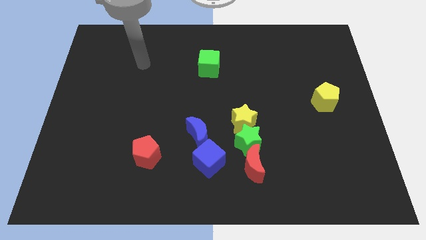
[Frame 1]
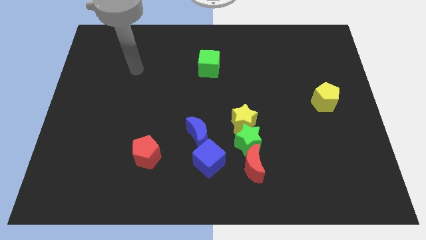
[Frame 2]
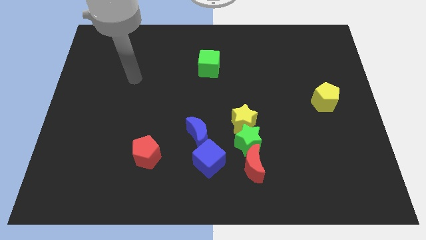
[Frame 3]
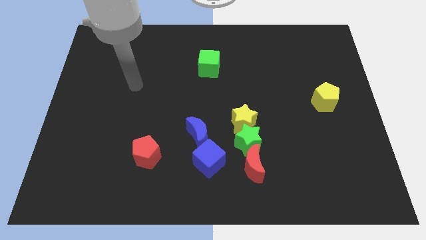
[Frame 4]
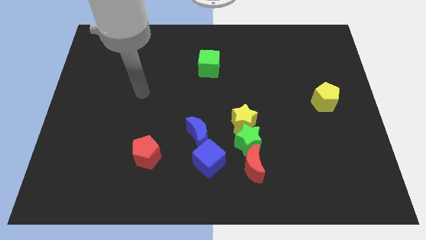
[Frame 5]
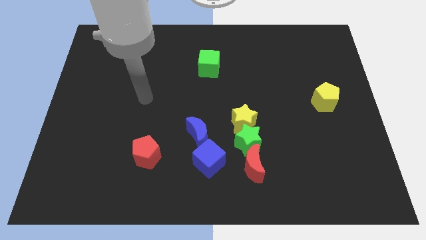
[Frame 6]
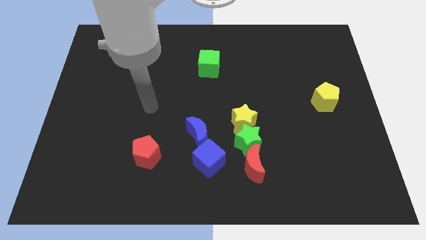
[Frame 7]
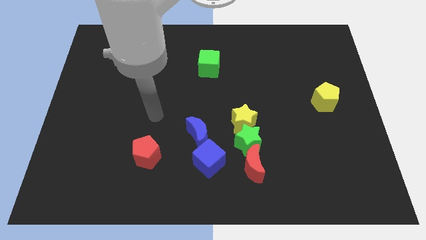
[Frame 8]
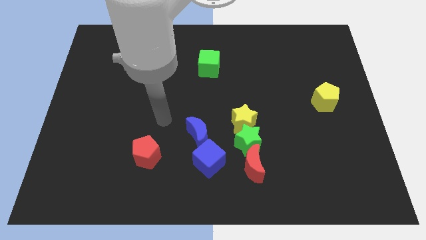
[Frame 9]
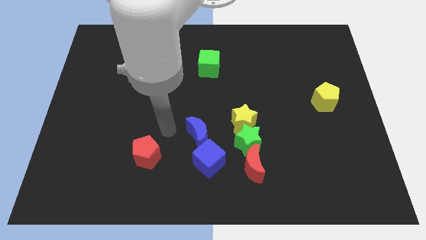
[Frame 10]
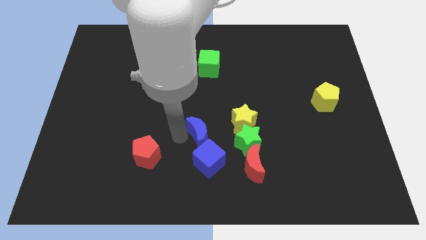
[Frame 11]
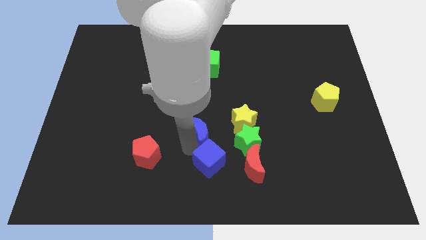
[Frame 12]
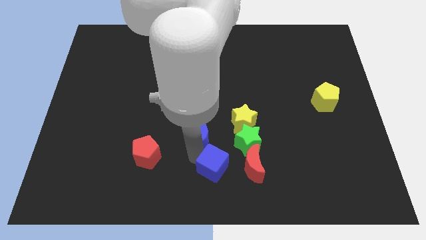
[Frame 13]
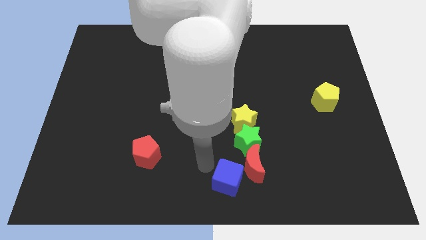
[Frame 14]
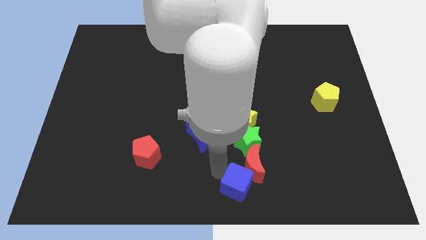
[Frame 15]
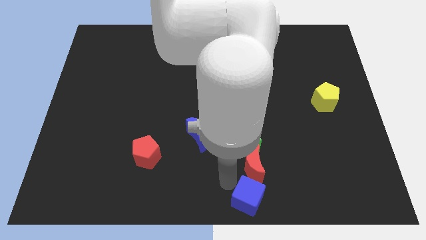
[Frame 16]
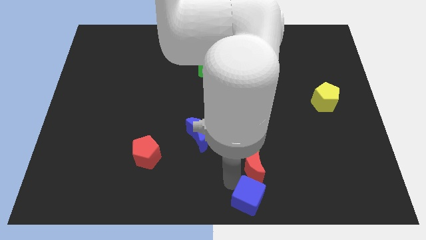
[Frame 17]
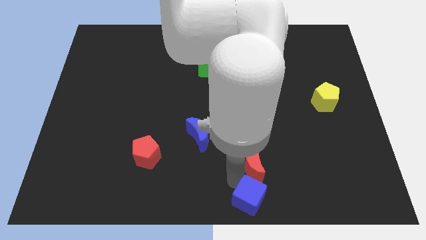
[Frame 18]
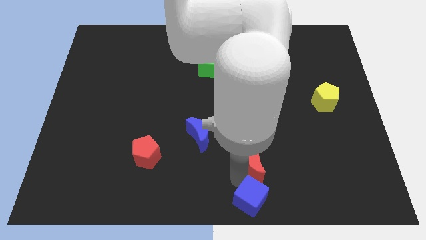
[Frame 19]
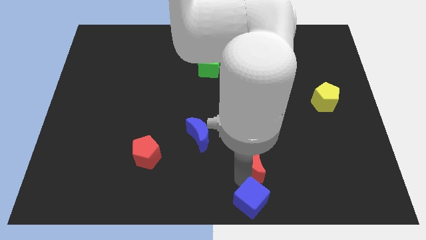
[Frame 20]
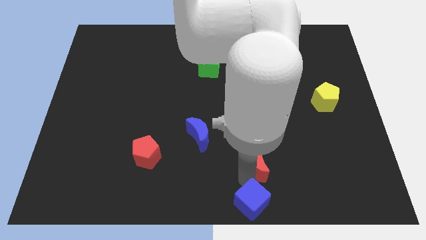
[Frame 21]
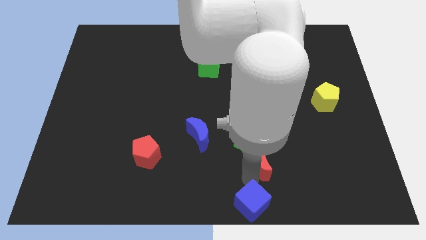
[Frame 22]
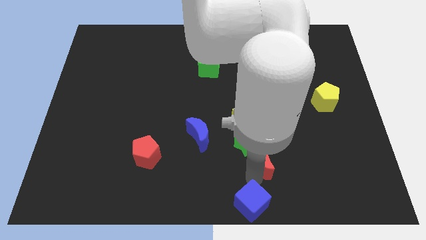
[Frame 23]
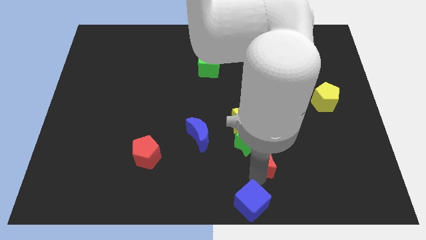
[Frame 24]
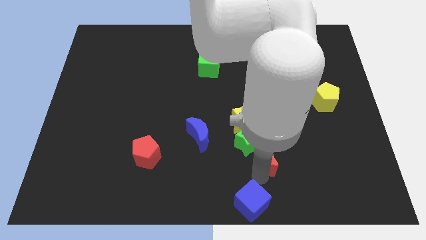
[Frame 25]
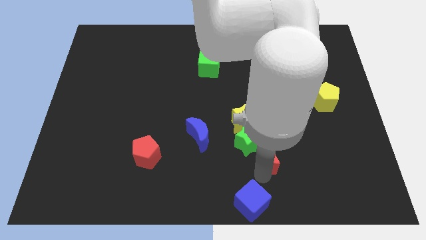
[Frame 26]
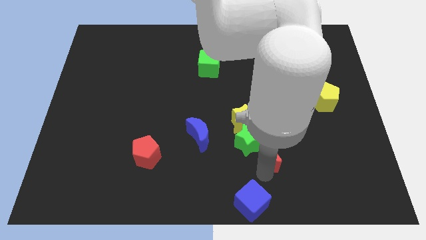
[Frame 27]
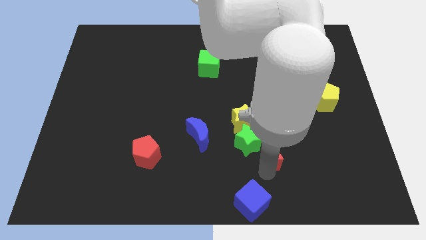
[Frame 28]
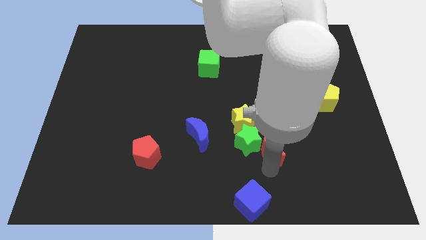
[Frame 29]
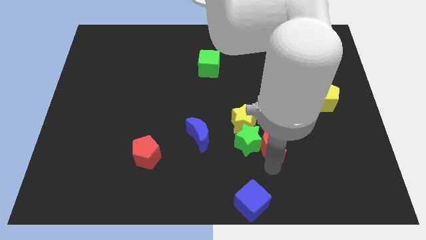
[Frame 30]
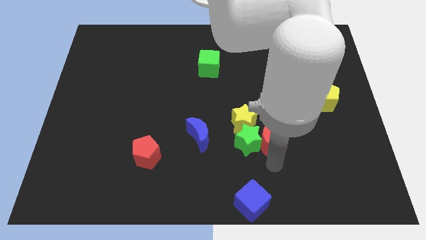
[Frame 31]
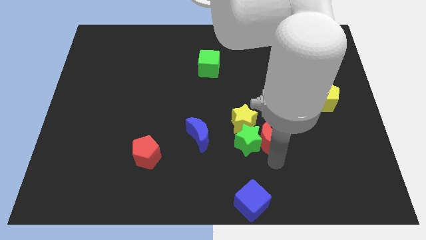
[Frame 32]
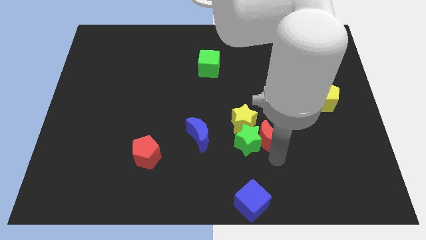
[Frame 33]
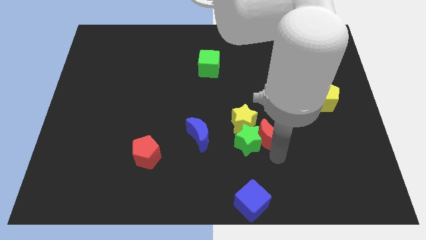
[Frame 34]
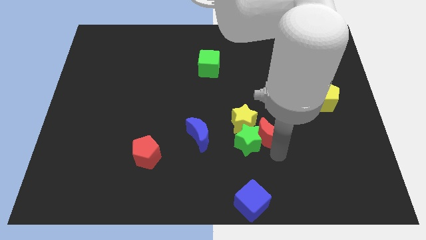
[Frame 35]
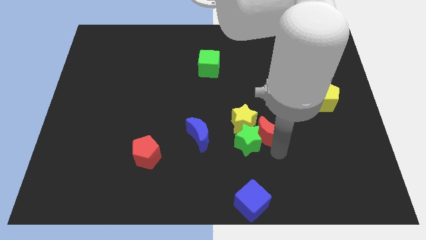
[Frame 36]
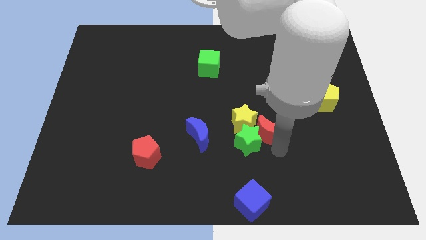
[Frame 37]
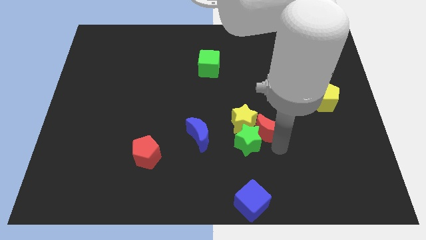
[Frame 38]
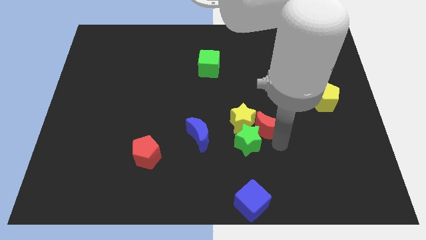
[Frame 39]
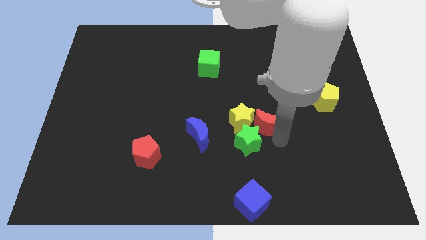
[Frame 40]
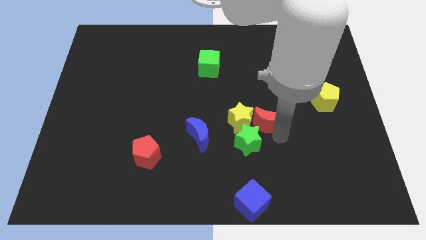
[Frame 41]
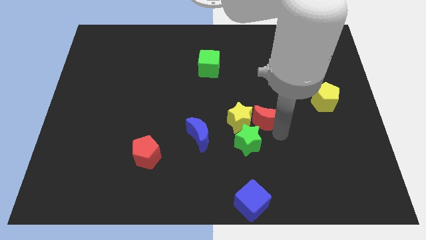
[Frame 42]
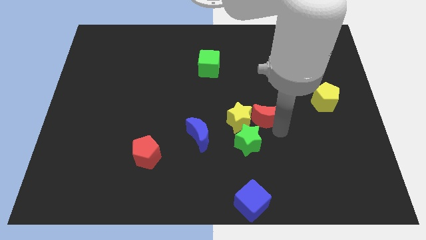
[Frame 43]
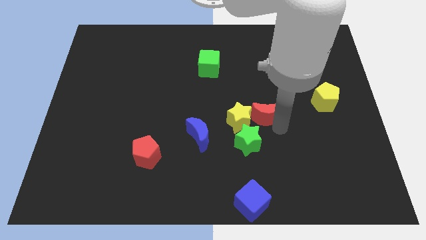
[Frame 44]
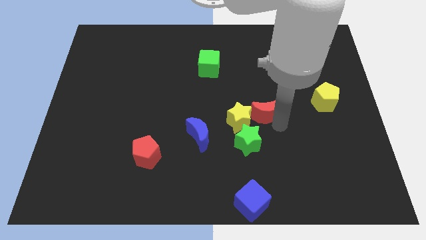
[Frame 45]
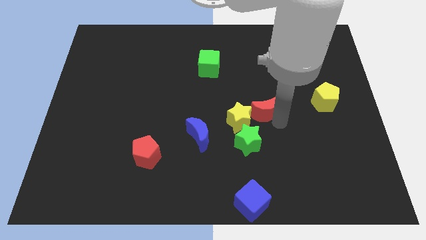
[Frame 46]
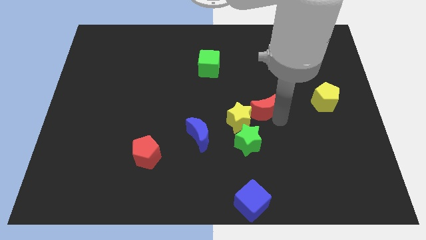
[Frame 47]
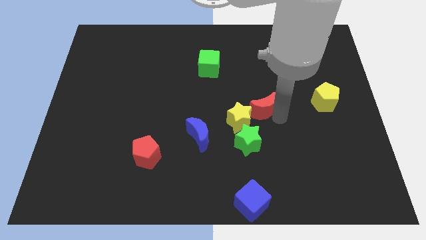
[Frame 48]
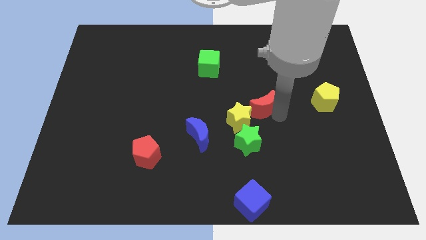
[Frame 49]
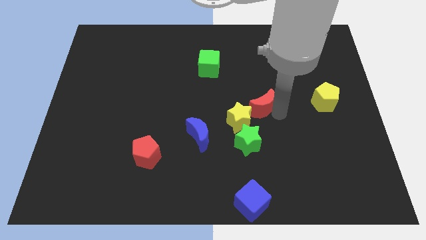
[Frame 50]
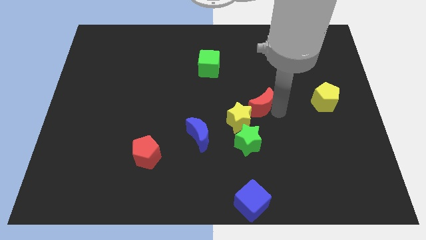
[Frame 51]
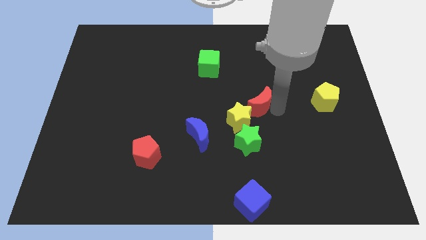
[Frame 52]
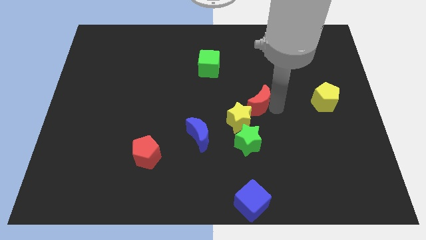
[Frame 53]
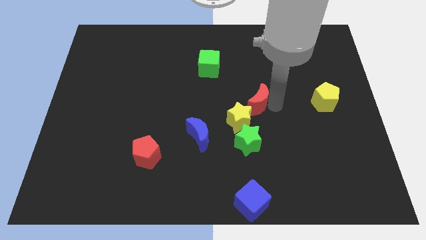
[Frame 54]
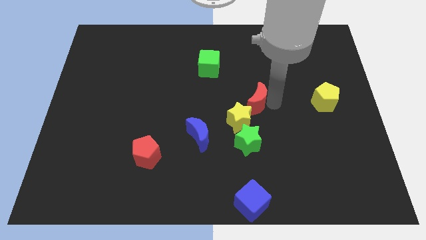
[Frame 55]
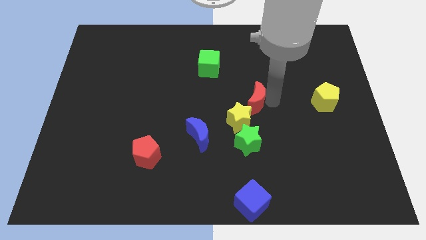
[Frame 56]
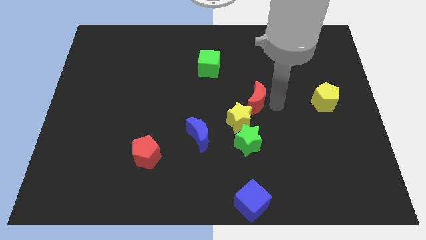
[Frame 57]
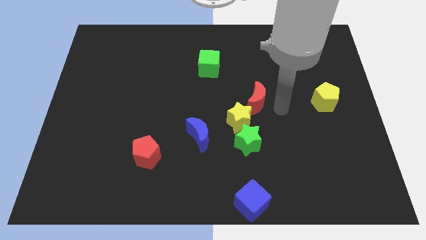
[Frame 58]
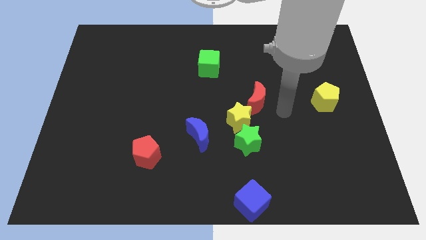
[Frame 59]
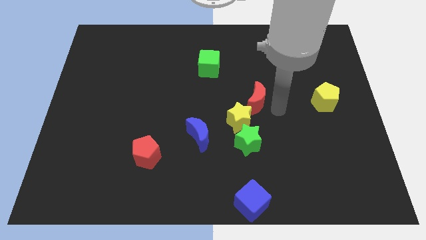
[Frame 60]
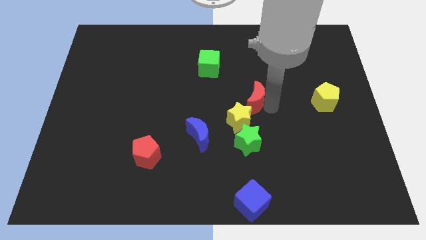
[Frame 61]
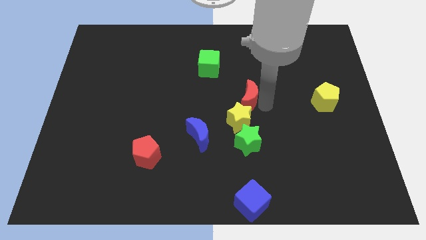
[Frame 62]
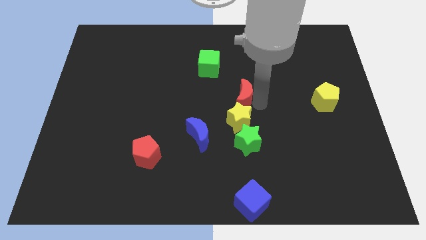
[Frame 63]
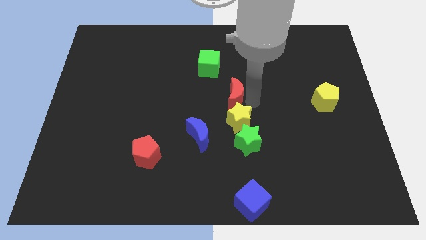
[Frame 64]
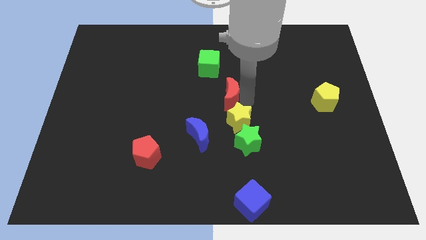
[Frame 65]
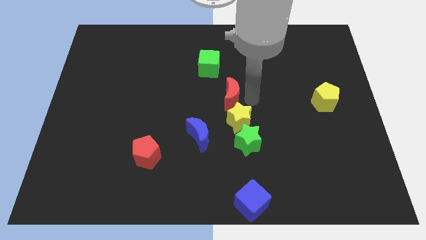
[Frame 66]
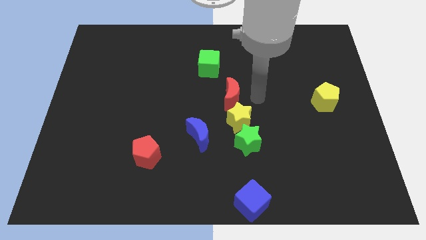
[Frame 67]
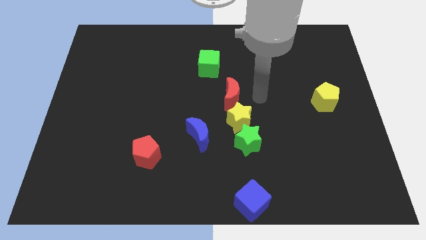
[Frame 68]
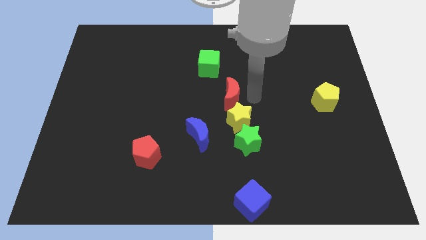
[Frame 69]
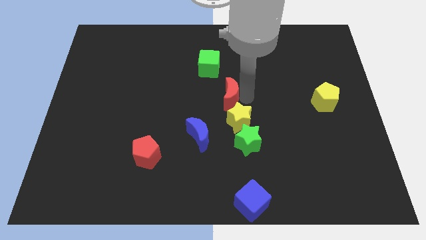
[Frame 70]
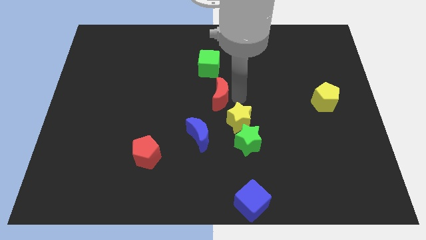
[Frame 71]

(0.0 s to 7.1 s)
slide the red moon below the green cube
